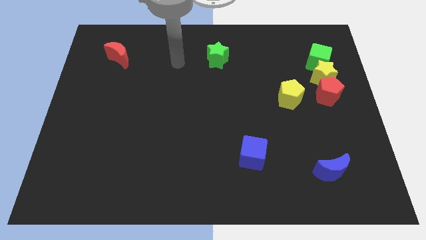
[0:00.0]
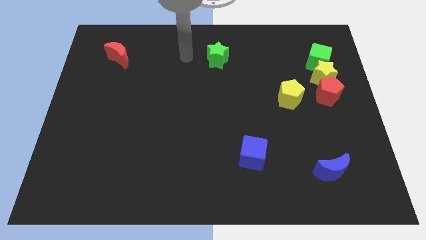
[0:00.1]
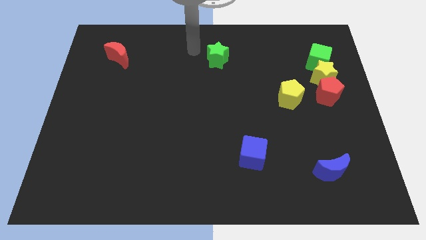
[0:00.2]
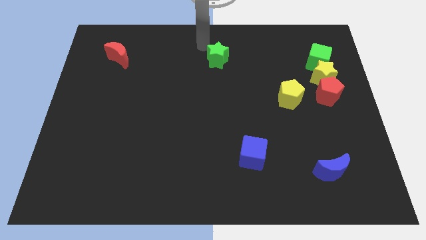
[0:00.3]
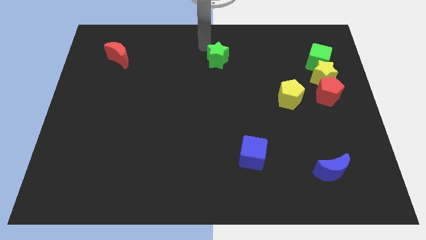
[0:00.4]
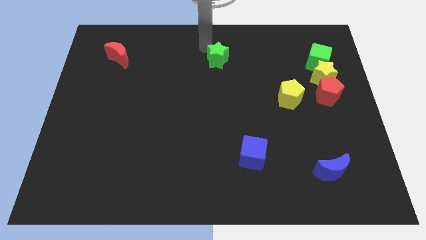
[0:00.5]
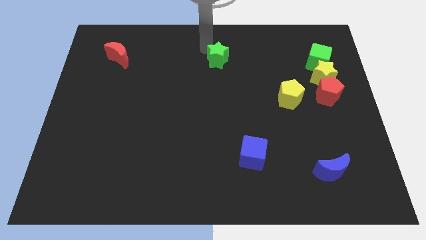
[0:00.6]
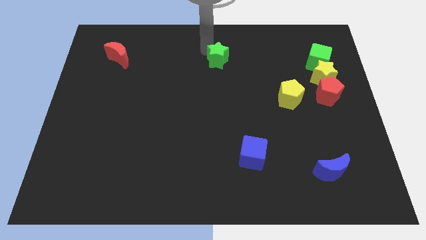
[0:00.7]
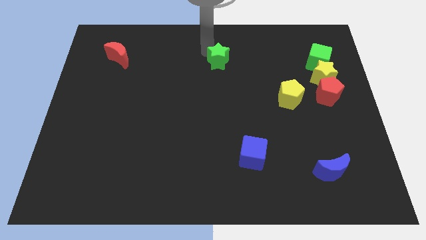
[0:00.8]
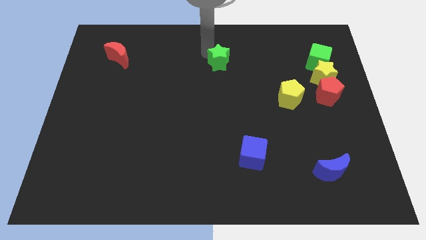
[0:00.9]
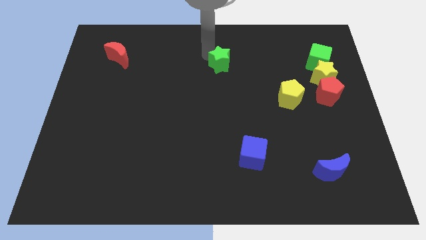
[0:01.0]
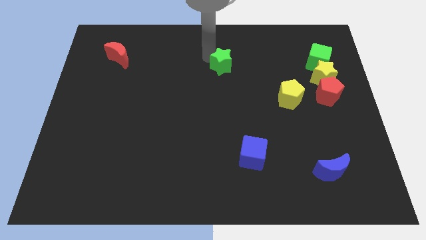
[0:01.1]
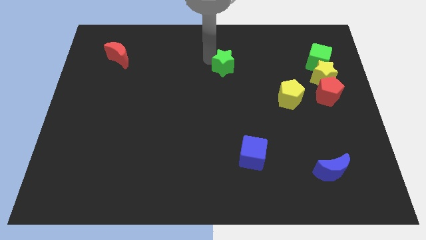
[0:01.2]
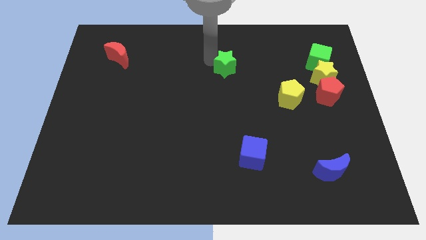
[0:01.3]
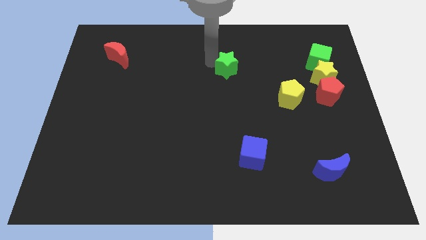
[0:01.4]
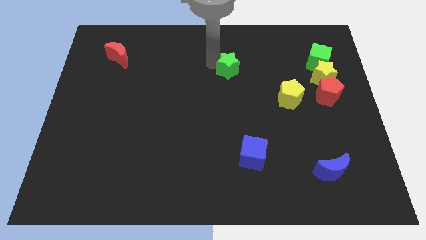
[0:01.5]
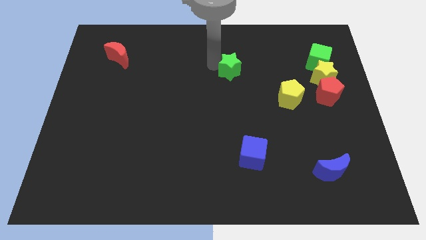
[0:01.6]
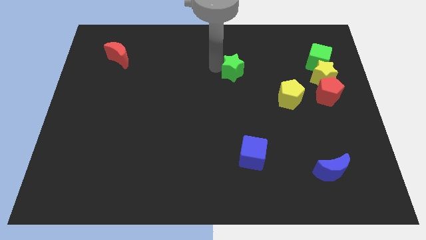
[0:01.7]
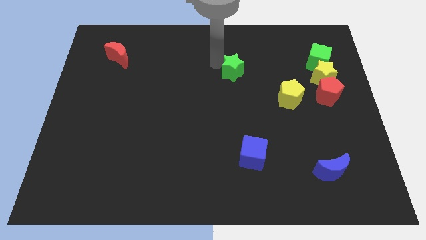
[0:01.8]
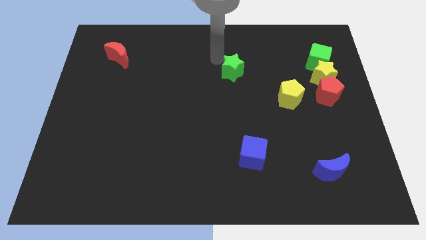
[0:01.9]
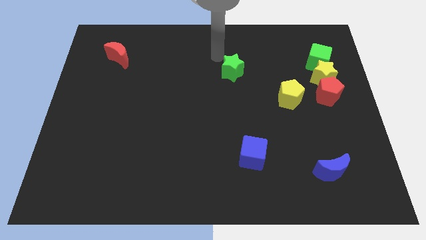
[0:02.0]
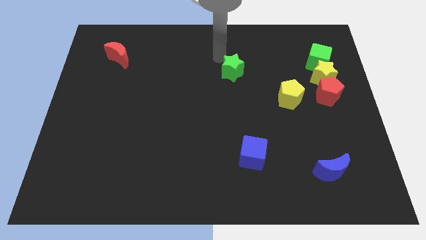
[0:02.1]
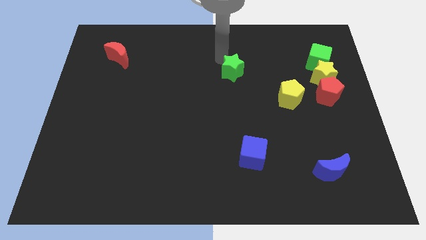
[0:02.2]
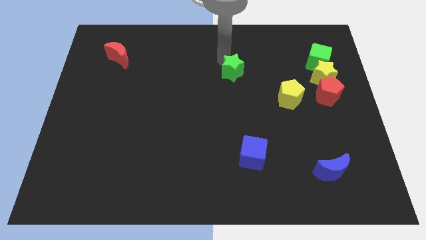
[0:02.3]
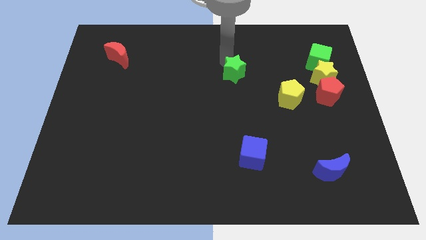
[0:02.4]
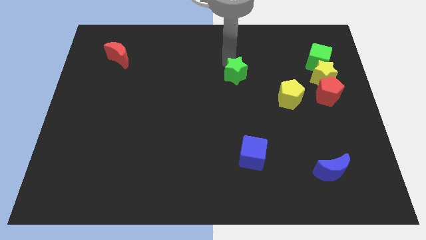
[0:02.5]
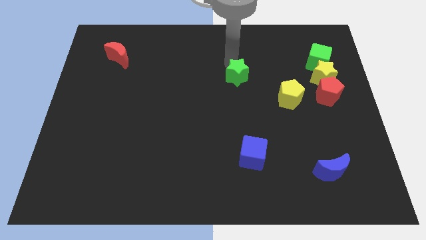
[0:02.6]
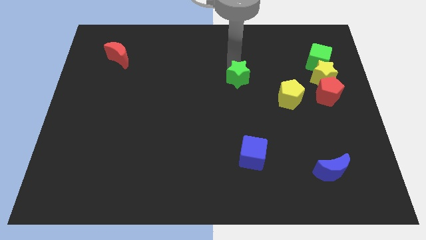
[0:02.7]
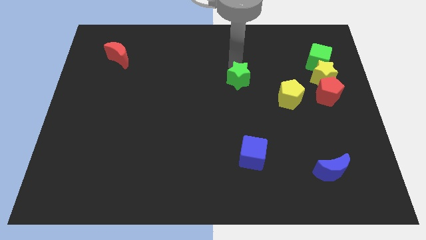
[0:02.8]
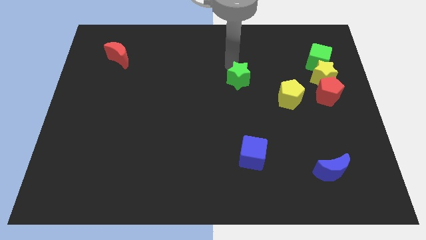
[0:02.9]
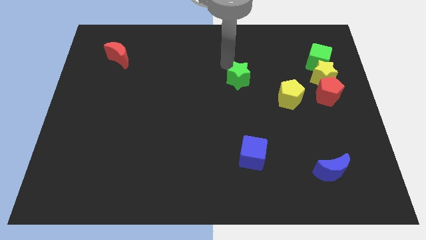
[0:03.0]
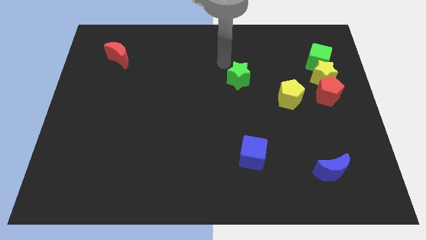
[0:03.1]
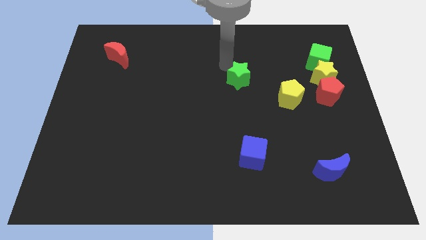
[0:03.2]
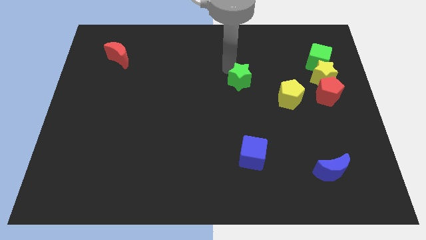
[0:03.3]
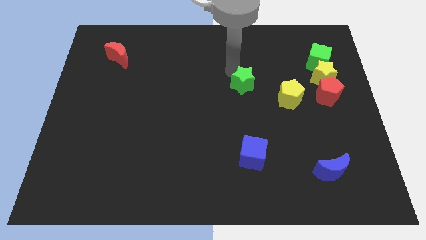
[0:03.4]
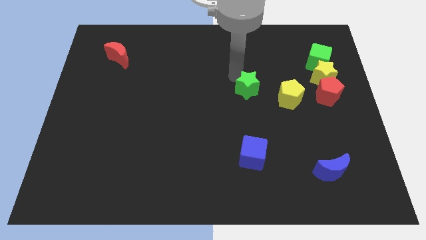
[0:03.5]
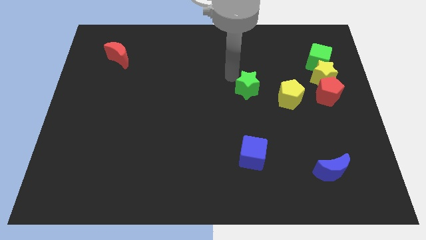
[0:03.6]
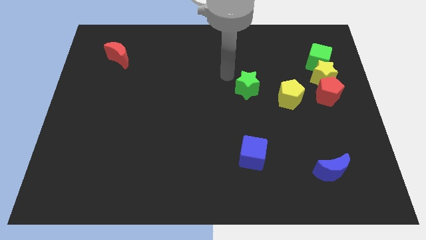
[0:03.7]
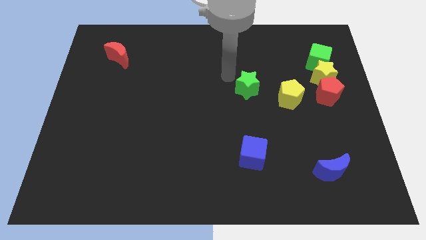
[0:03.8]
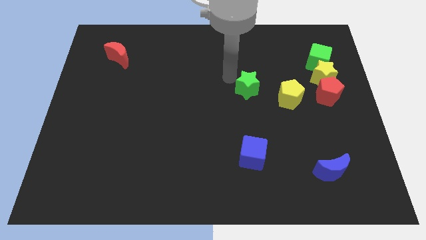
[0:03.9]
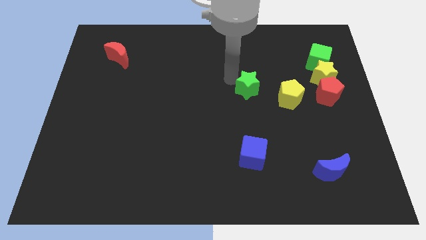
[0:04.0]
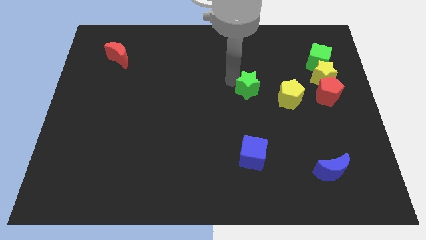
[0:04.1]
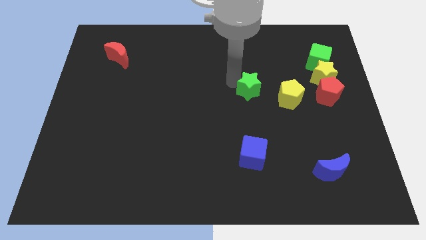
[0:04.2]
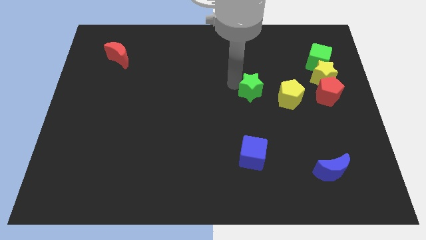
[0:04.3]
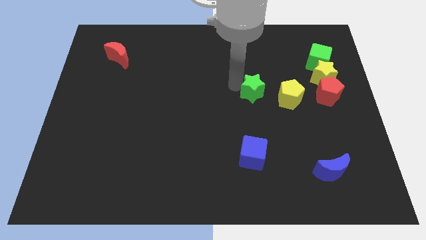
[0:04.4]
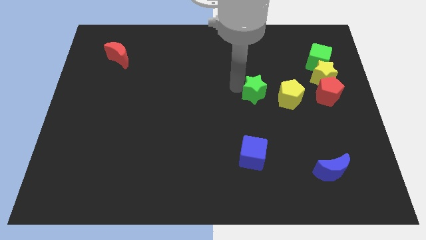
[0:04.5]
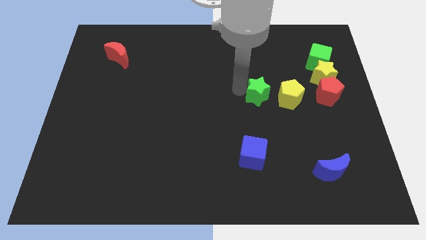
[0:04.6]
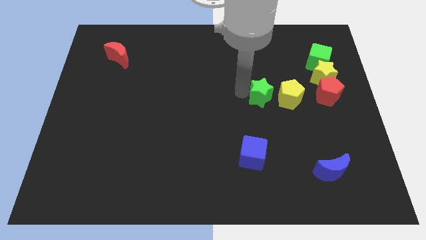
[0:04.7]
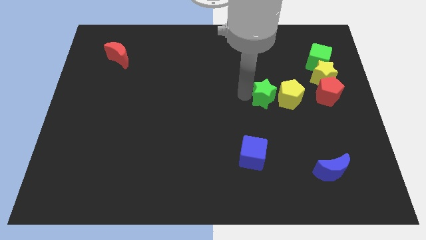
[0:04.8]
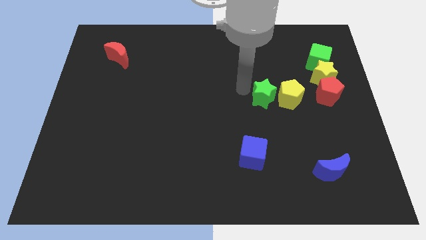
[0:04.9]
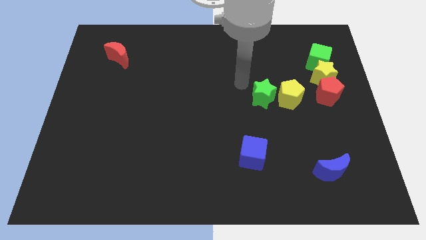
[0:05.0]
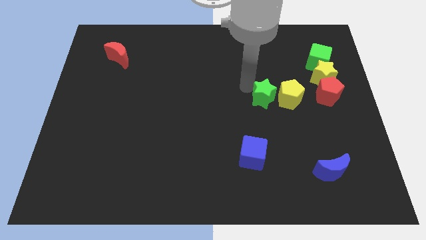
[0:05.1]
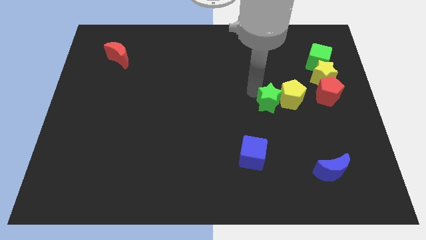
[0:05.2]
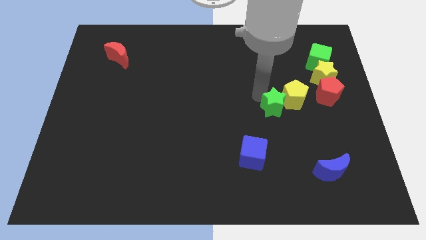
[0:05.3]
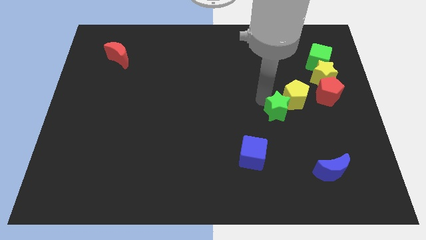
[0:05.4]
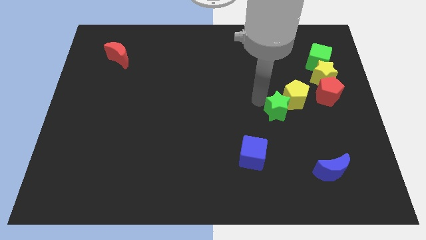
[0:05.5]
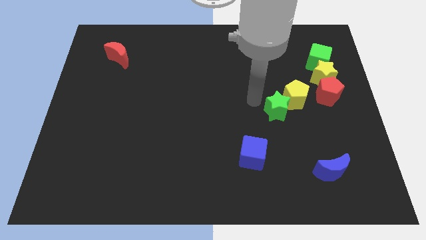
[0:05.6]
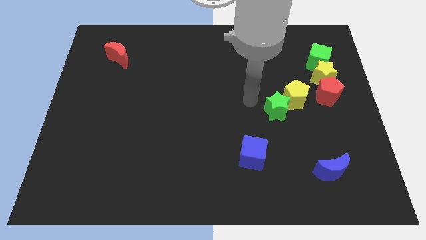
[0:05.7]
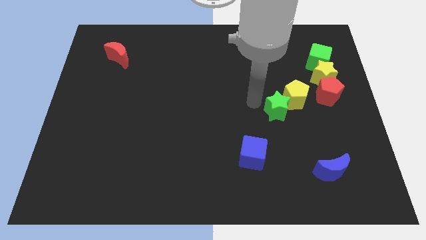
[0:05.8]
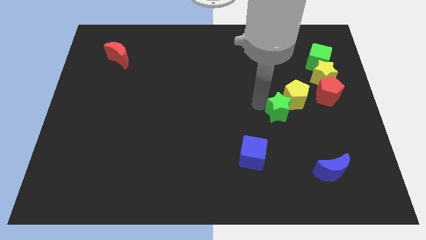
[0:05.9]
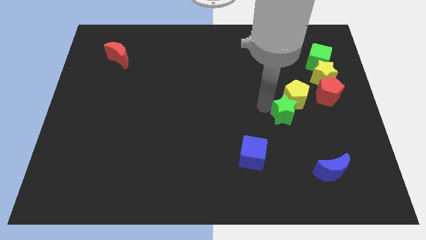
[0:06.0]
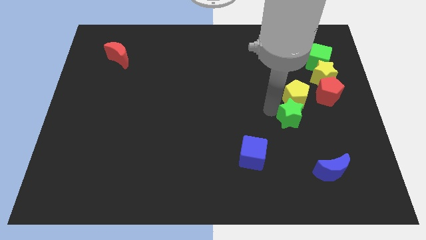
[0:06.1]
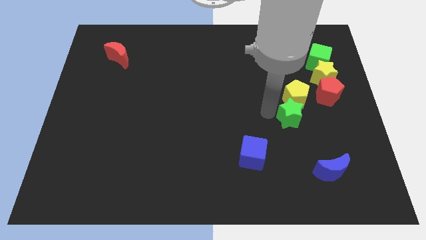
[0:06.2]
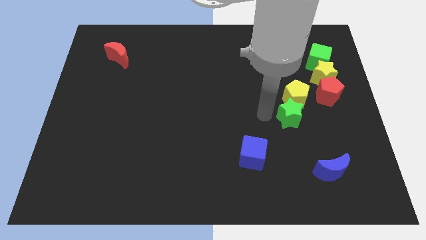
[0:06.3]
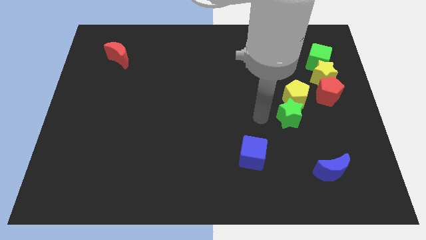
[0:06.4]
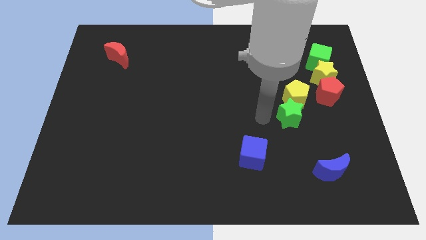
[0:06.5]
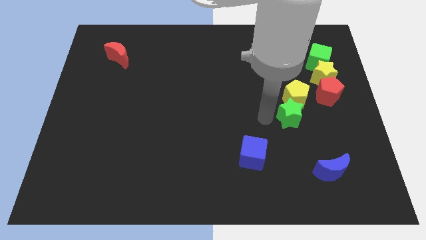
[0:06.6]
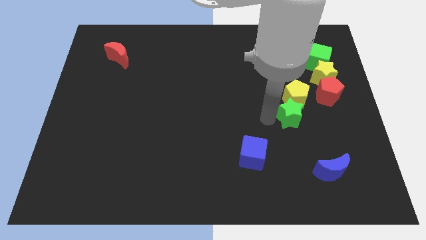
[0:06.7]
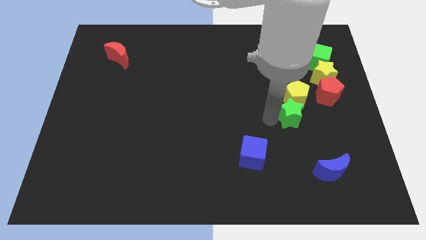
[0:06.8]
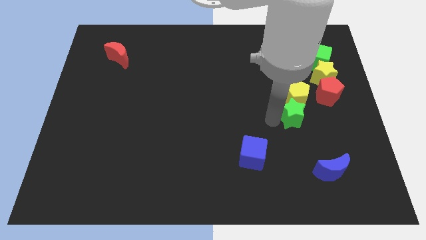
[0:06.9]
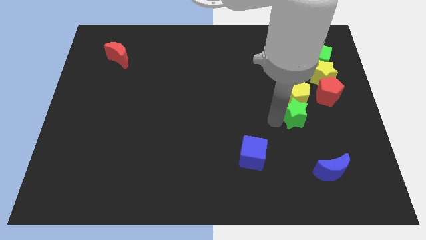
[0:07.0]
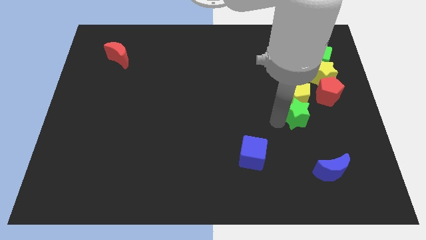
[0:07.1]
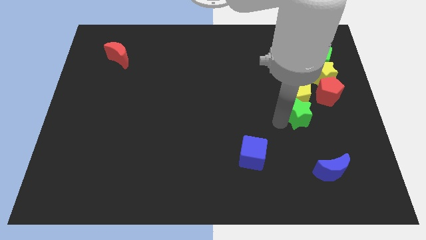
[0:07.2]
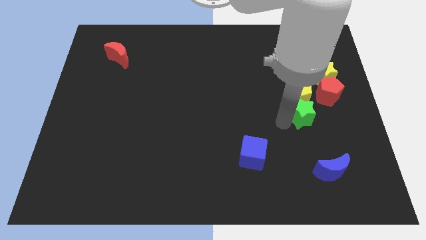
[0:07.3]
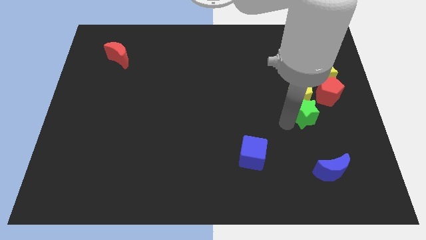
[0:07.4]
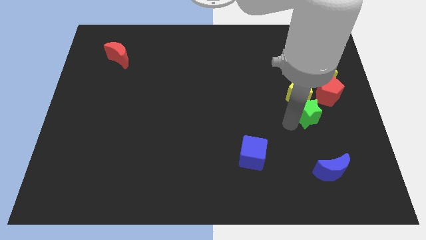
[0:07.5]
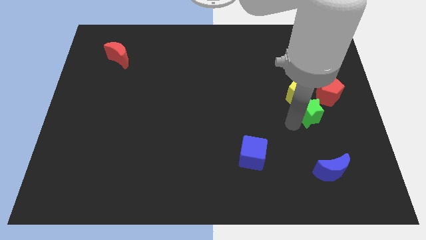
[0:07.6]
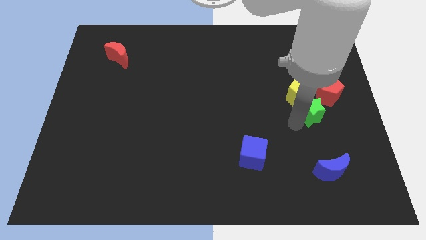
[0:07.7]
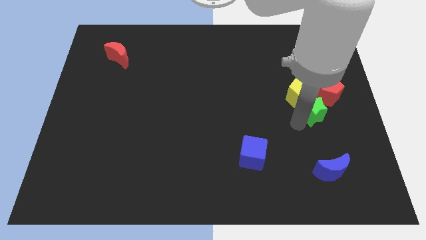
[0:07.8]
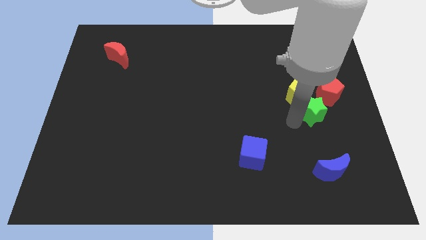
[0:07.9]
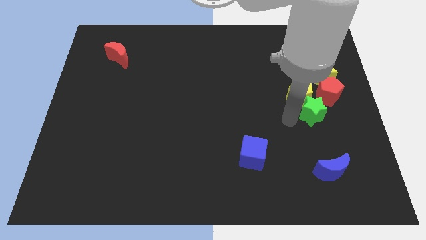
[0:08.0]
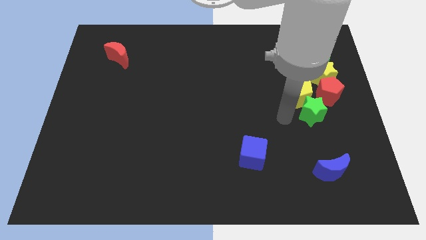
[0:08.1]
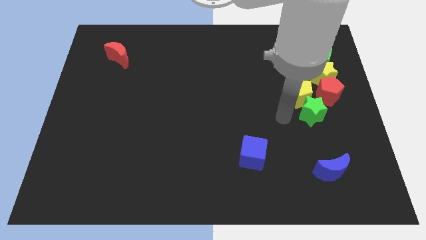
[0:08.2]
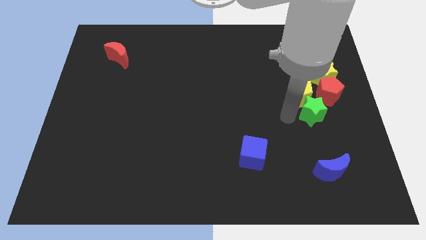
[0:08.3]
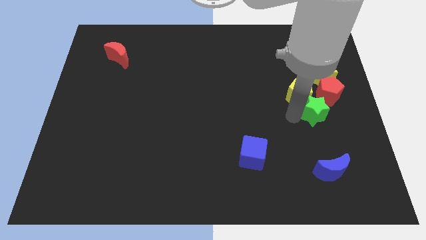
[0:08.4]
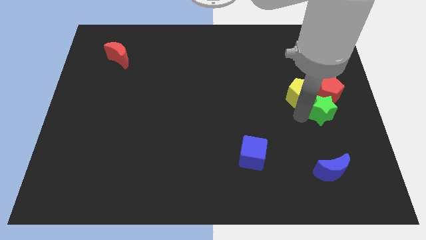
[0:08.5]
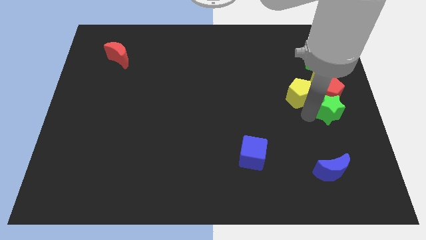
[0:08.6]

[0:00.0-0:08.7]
move the green star to the center right
